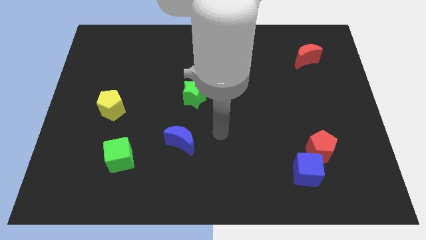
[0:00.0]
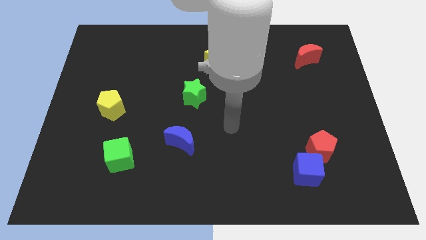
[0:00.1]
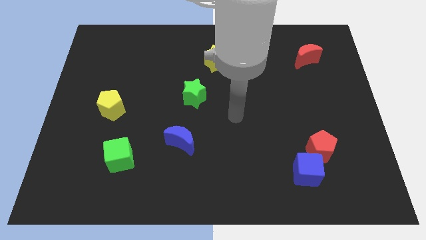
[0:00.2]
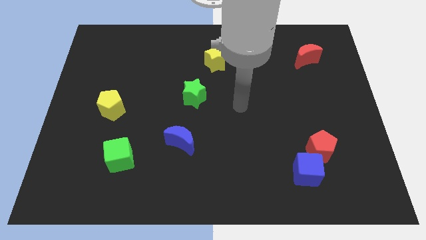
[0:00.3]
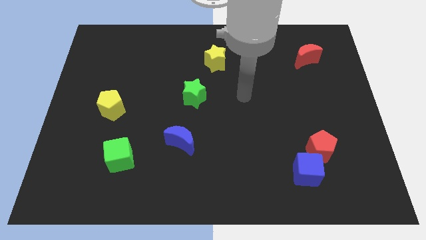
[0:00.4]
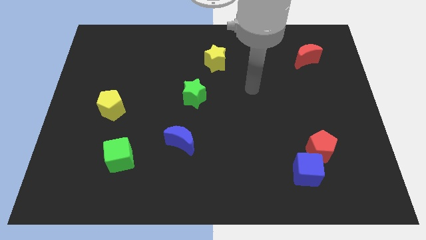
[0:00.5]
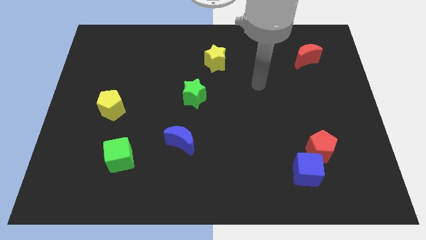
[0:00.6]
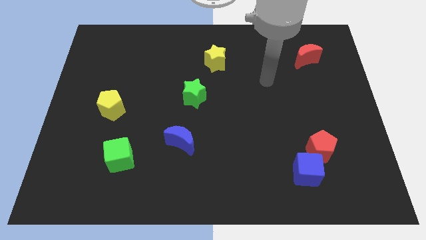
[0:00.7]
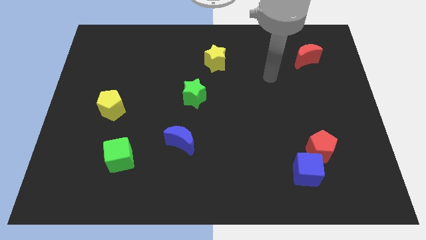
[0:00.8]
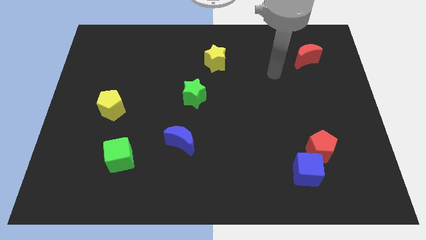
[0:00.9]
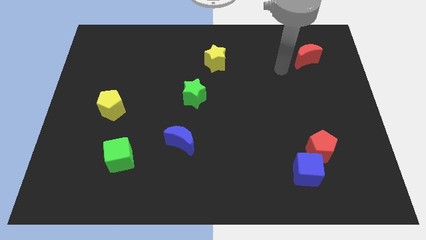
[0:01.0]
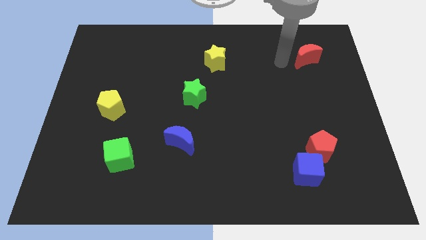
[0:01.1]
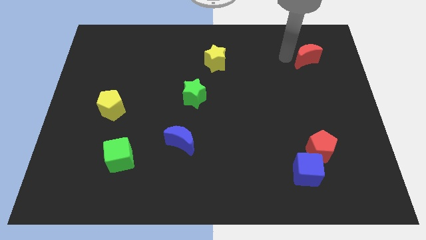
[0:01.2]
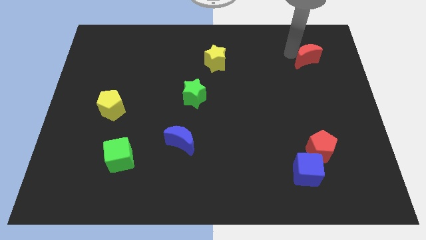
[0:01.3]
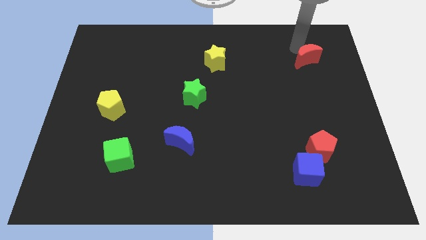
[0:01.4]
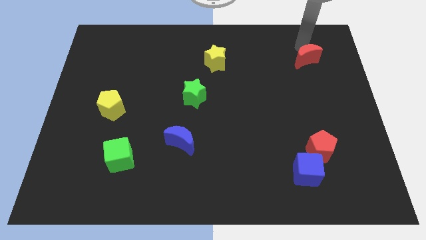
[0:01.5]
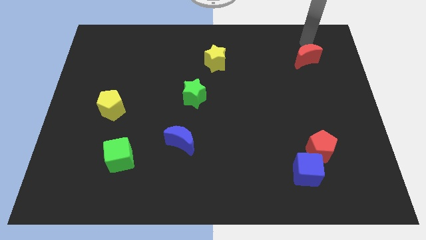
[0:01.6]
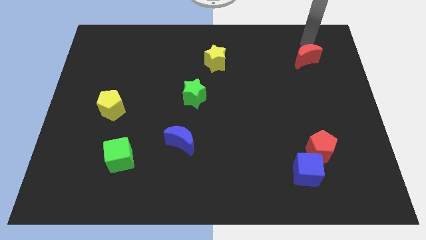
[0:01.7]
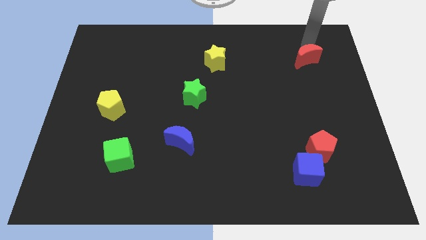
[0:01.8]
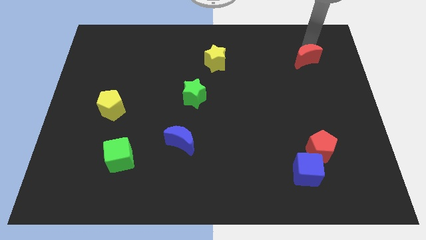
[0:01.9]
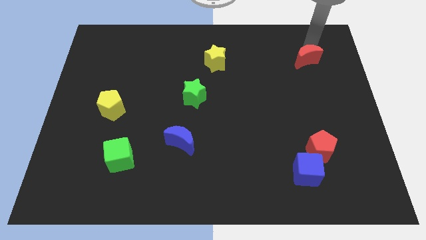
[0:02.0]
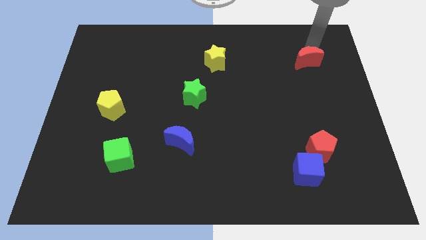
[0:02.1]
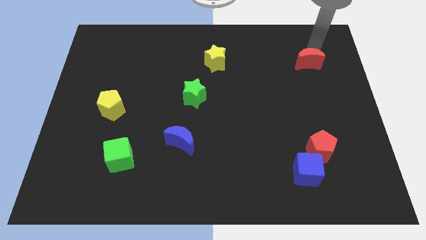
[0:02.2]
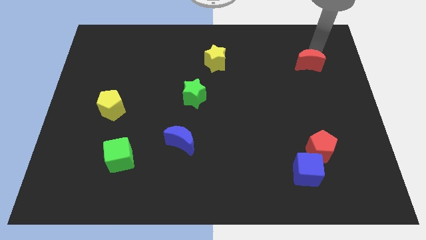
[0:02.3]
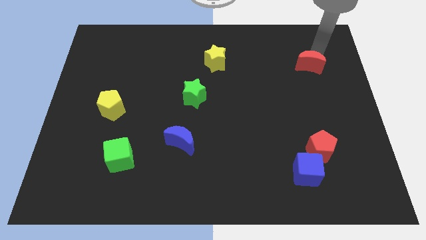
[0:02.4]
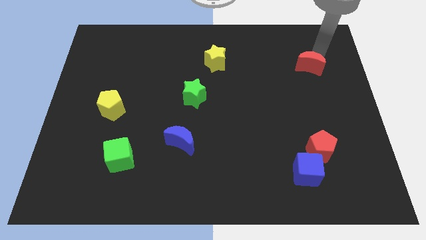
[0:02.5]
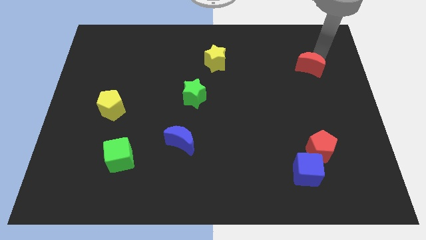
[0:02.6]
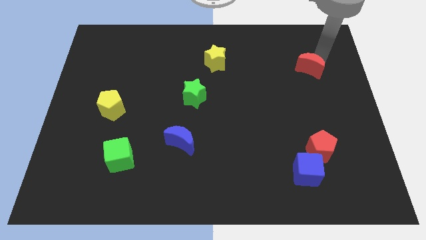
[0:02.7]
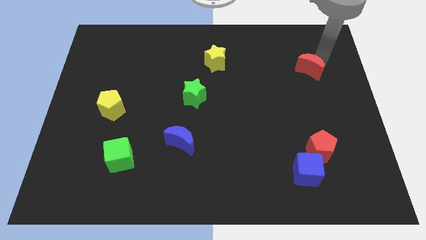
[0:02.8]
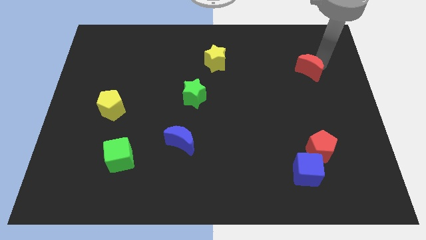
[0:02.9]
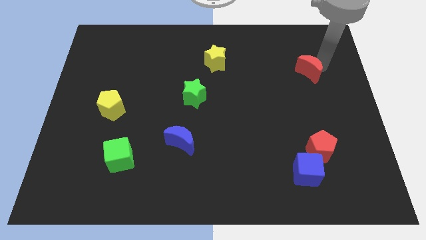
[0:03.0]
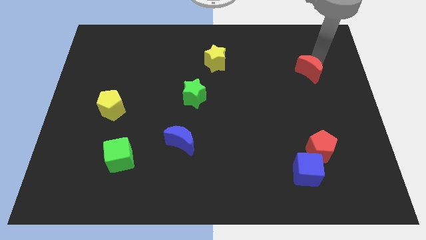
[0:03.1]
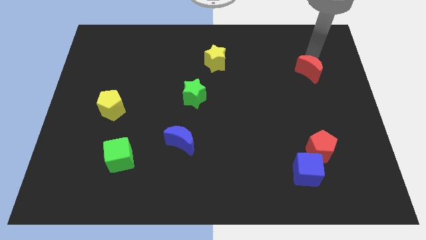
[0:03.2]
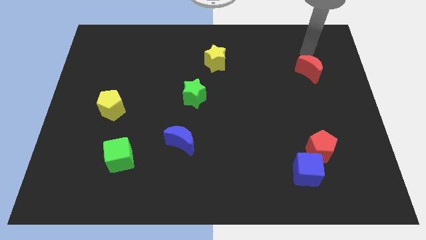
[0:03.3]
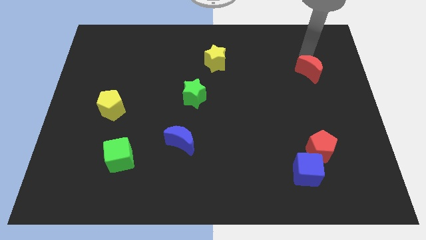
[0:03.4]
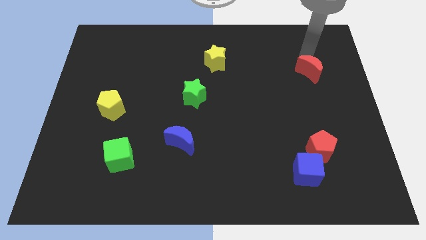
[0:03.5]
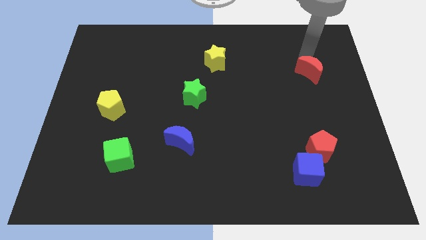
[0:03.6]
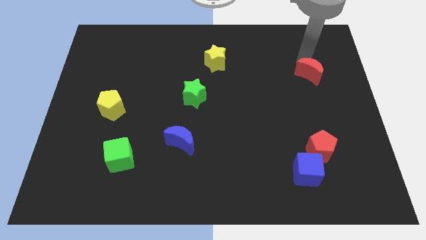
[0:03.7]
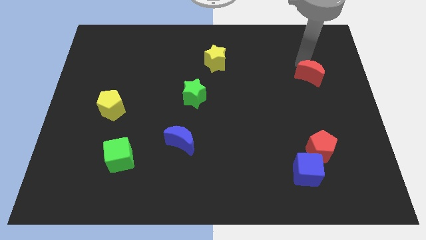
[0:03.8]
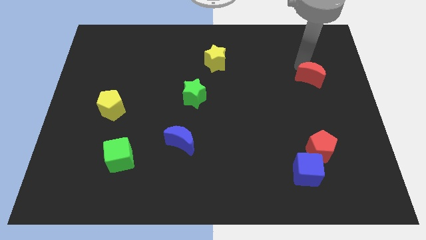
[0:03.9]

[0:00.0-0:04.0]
slightly slide the red moon downwards

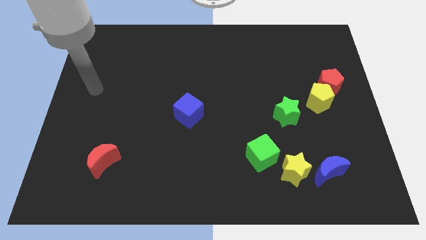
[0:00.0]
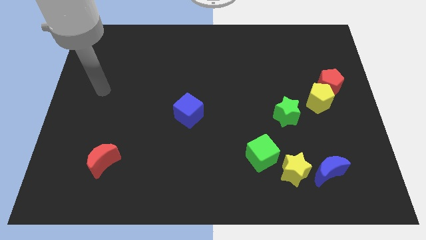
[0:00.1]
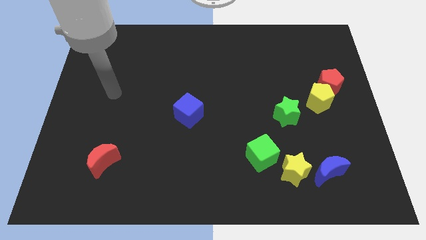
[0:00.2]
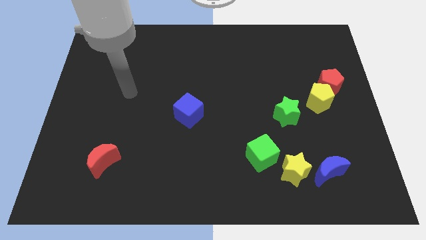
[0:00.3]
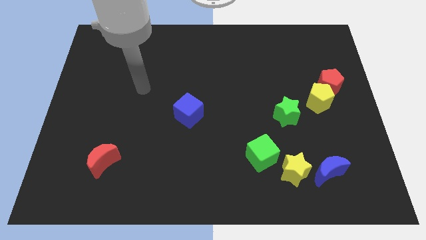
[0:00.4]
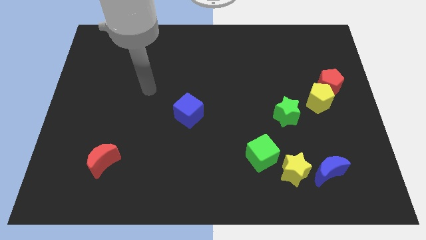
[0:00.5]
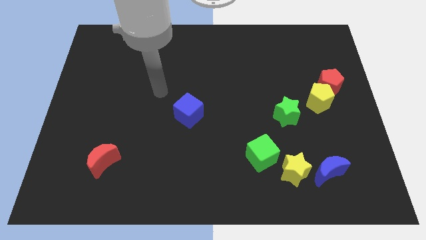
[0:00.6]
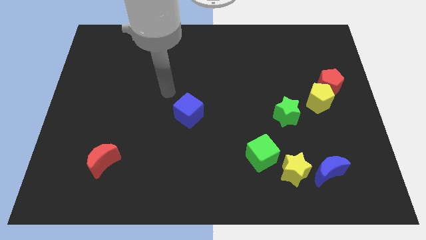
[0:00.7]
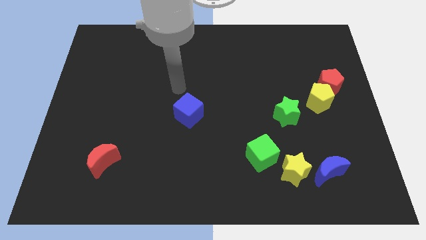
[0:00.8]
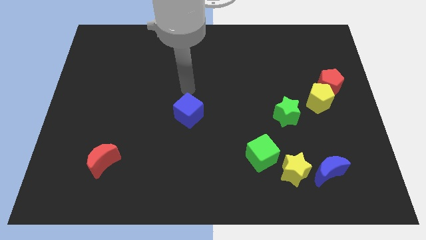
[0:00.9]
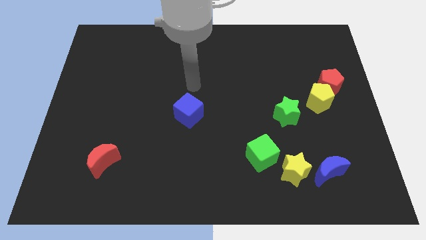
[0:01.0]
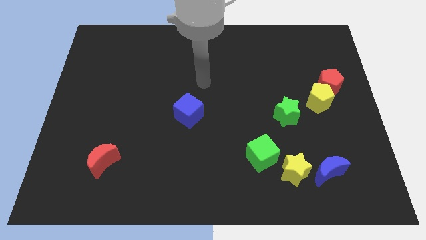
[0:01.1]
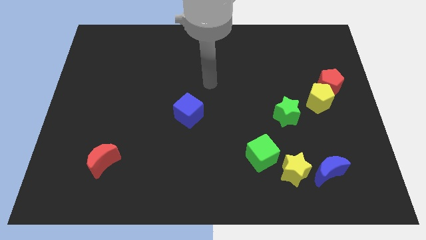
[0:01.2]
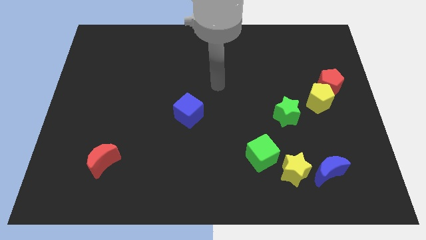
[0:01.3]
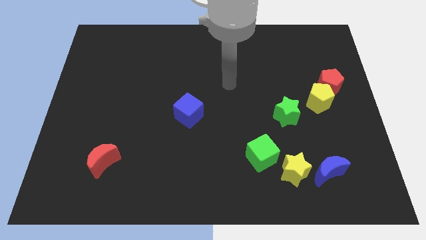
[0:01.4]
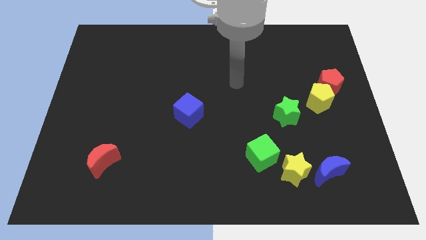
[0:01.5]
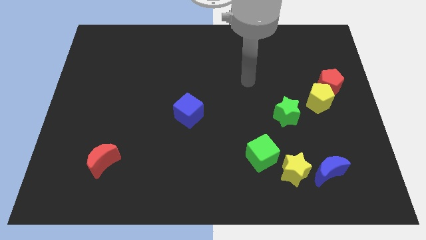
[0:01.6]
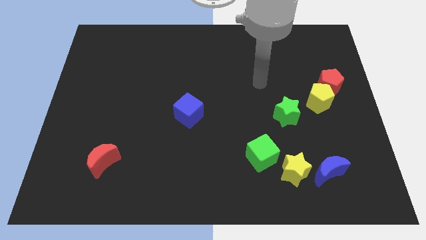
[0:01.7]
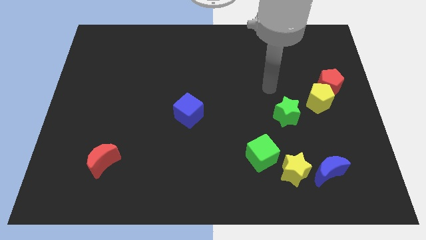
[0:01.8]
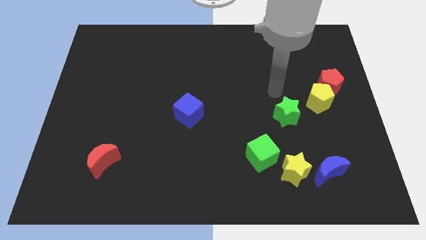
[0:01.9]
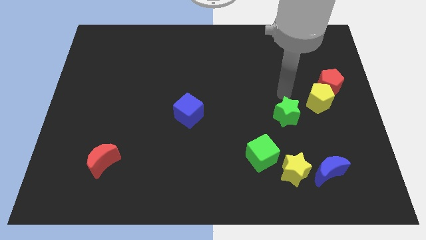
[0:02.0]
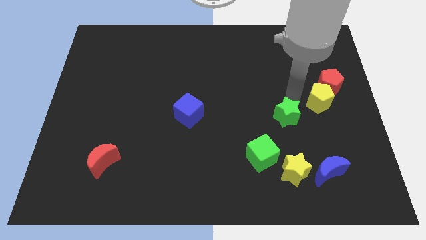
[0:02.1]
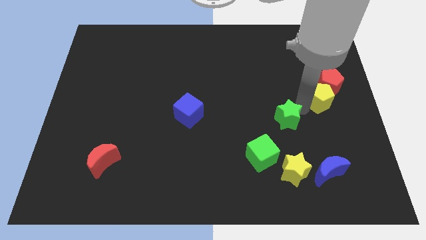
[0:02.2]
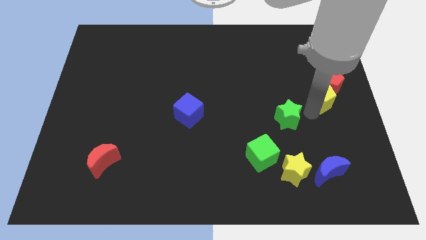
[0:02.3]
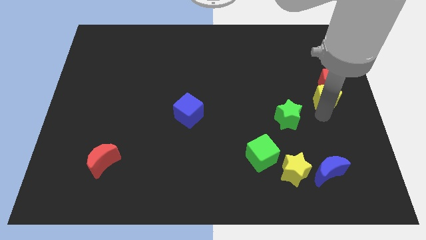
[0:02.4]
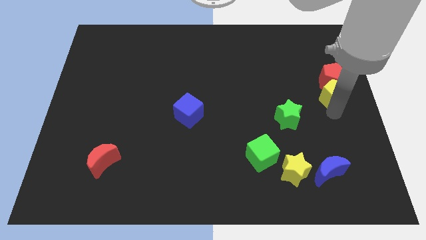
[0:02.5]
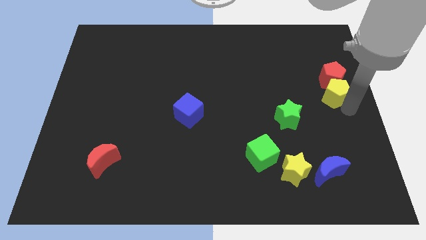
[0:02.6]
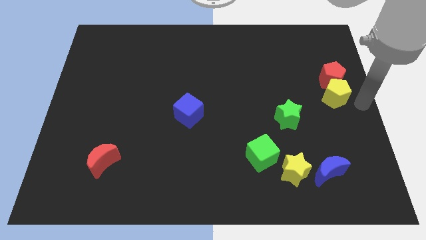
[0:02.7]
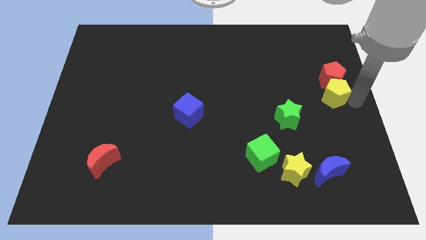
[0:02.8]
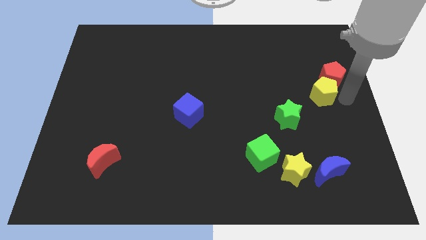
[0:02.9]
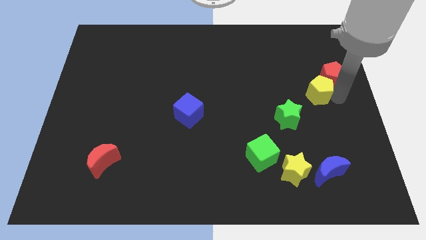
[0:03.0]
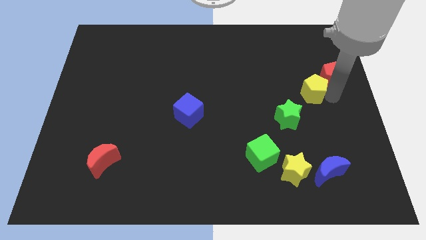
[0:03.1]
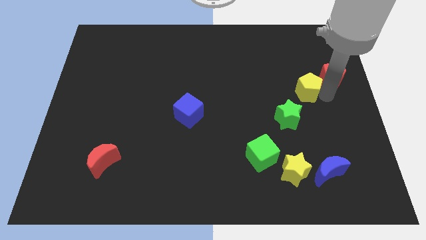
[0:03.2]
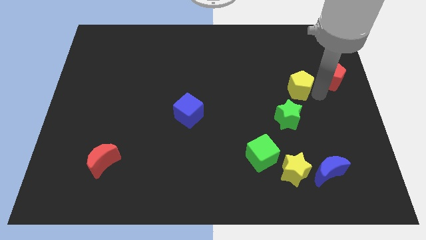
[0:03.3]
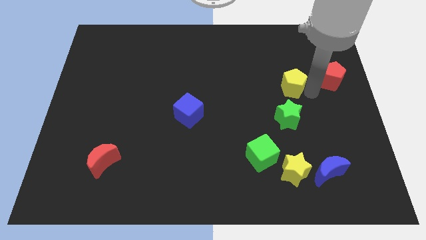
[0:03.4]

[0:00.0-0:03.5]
push the yellow pentagon slightly up and left

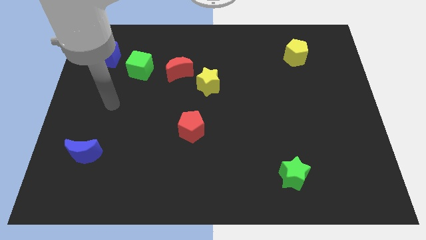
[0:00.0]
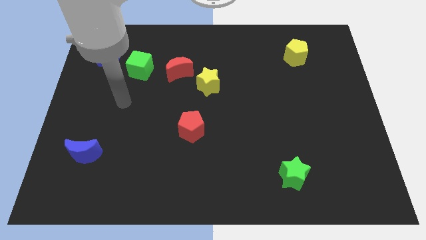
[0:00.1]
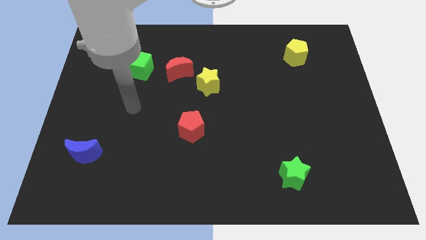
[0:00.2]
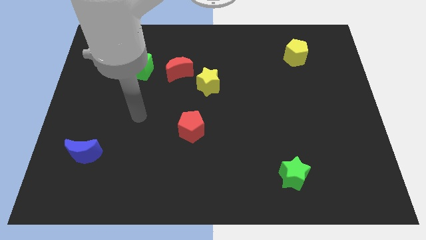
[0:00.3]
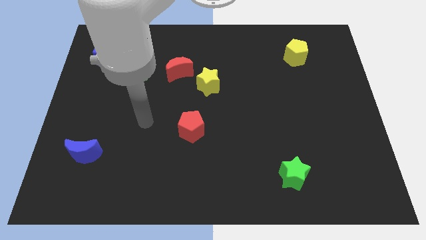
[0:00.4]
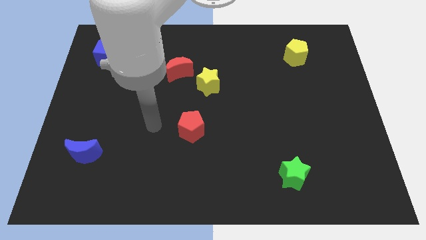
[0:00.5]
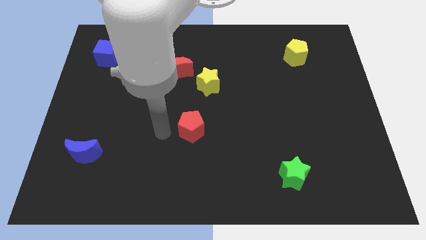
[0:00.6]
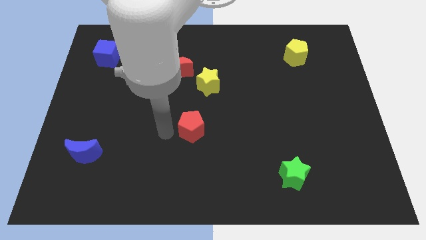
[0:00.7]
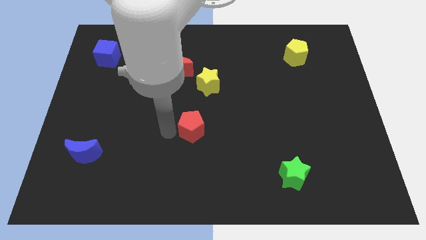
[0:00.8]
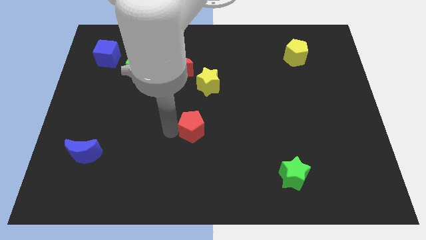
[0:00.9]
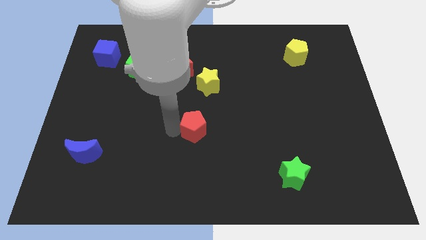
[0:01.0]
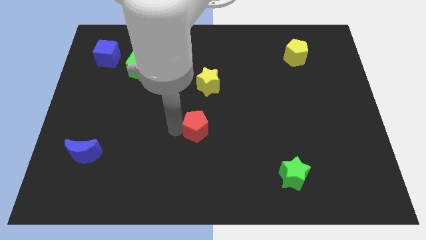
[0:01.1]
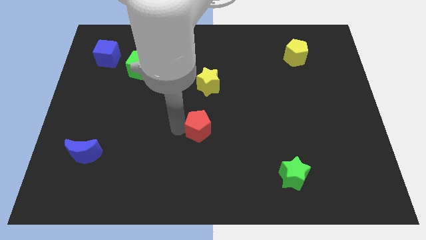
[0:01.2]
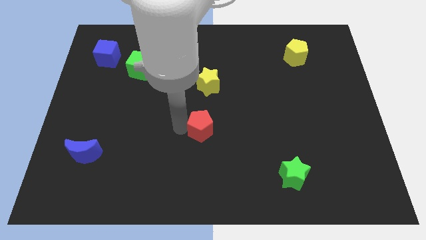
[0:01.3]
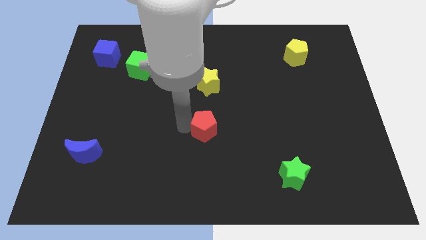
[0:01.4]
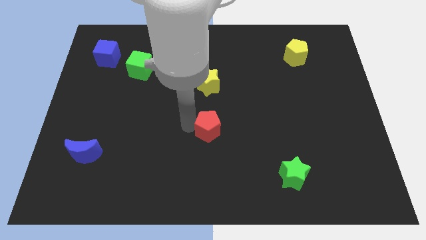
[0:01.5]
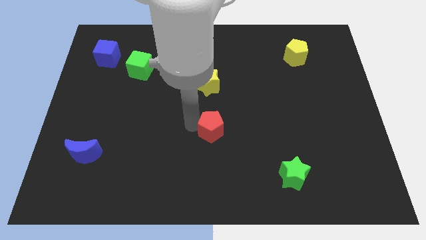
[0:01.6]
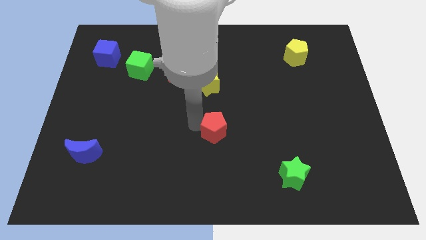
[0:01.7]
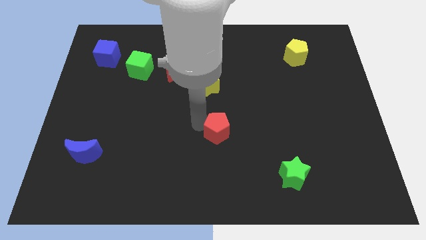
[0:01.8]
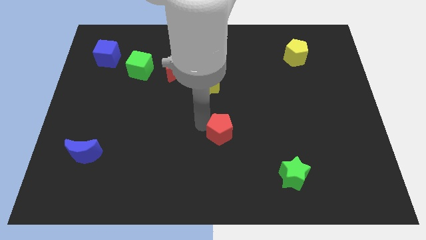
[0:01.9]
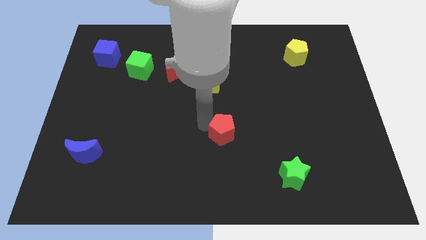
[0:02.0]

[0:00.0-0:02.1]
slide the red pentagon slightly to the right
